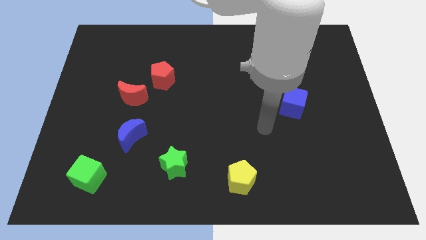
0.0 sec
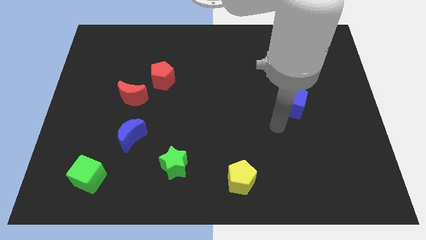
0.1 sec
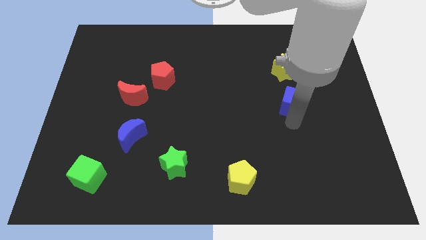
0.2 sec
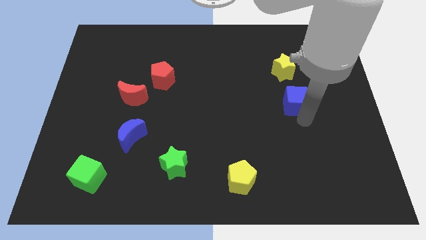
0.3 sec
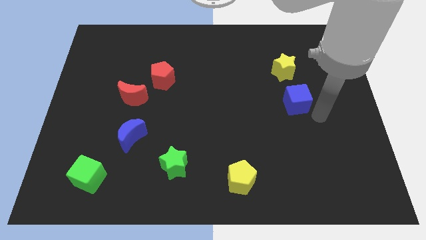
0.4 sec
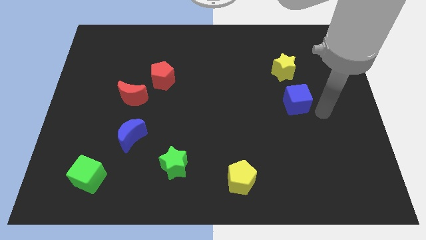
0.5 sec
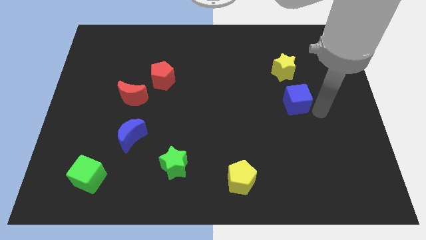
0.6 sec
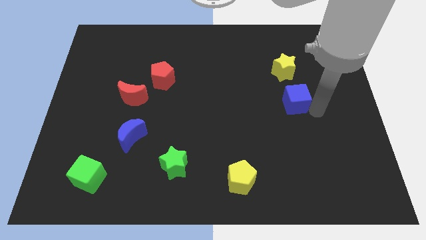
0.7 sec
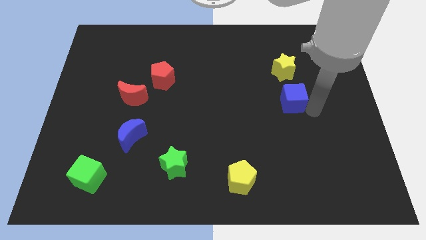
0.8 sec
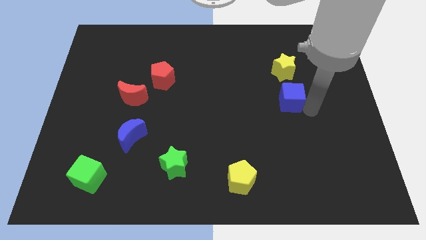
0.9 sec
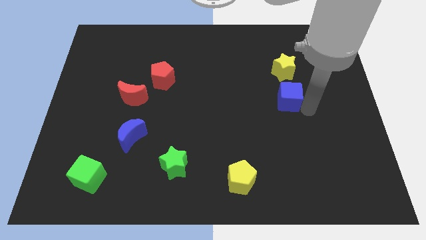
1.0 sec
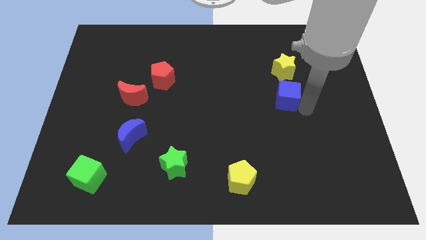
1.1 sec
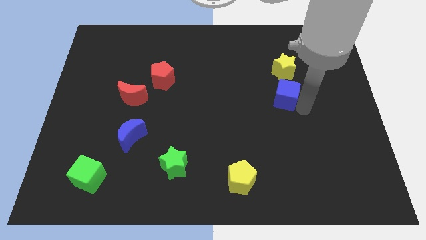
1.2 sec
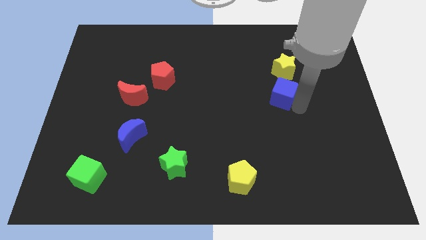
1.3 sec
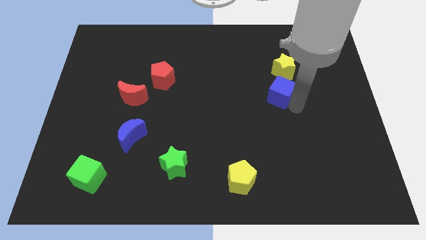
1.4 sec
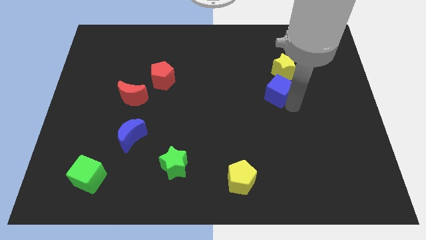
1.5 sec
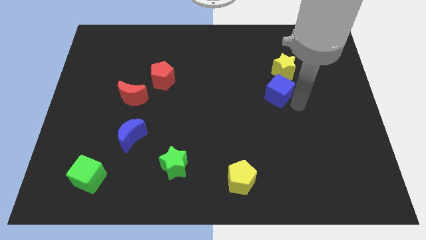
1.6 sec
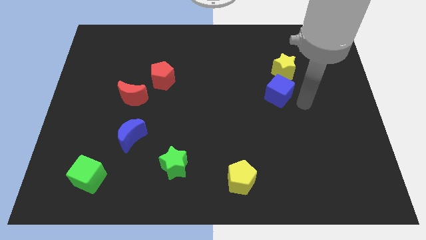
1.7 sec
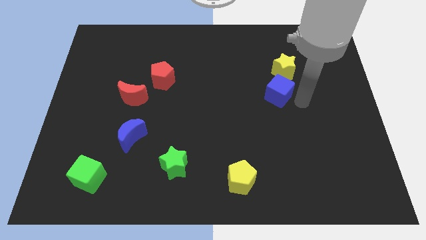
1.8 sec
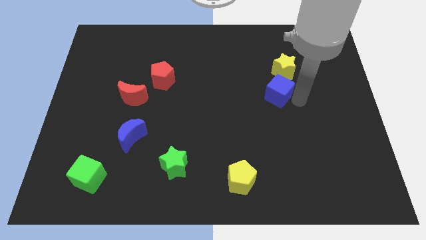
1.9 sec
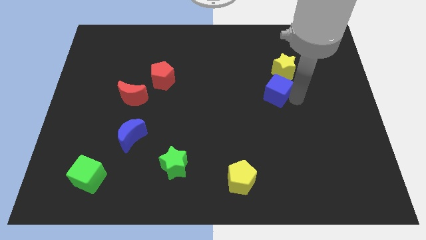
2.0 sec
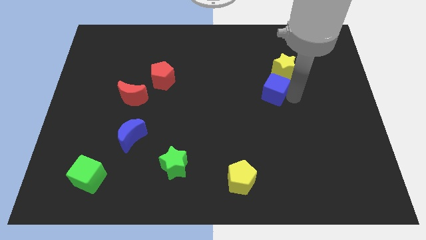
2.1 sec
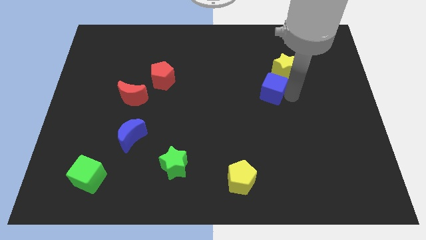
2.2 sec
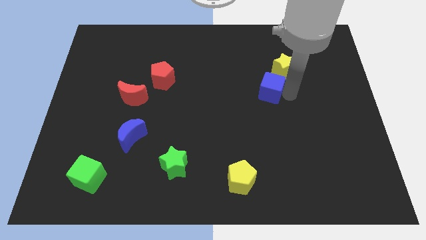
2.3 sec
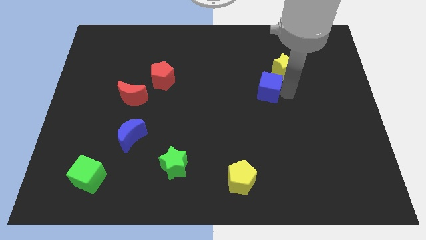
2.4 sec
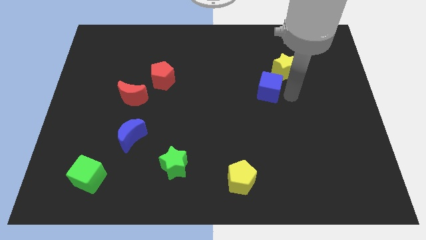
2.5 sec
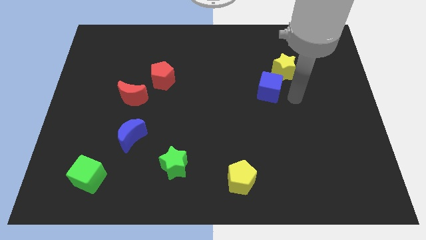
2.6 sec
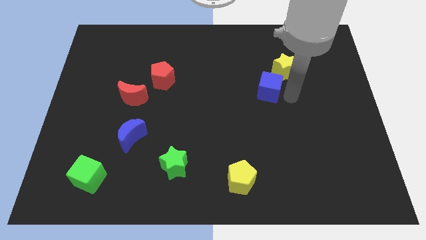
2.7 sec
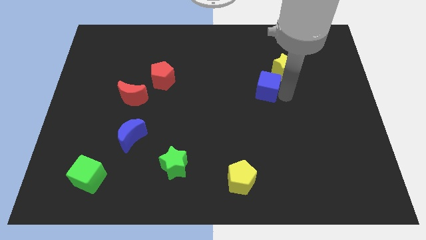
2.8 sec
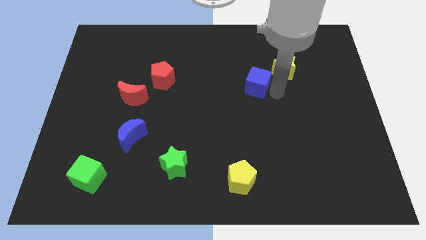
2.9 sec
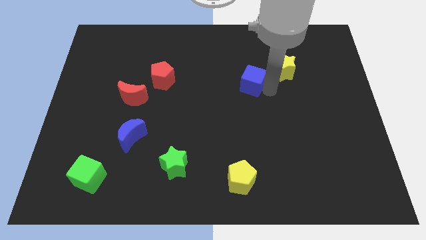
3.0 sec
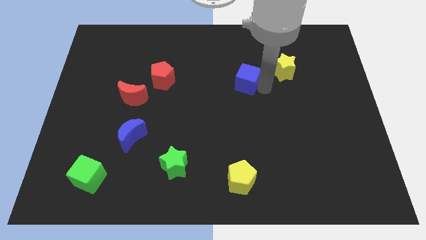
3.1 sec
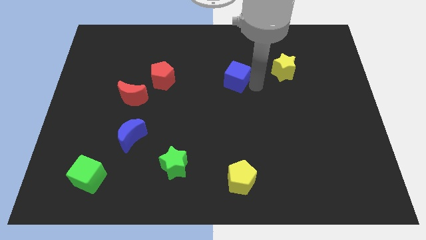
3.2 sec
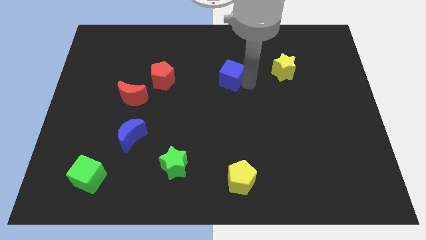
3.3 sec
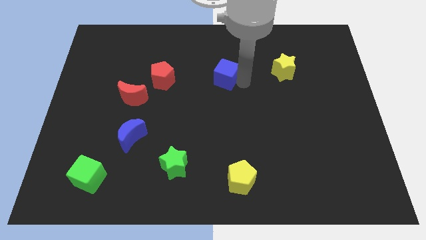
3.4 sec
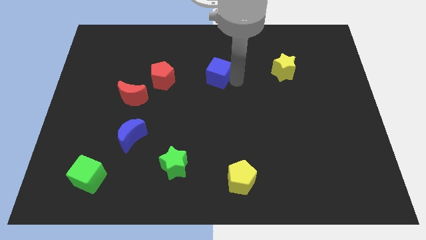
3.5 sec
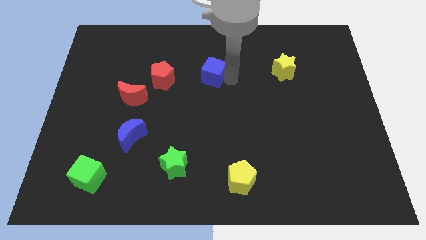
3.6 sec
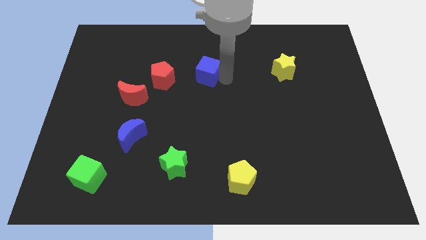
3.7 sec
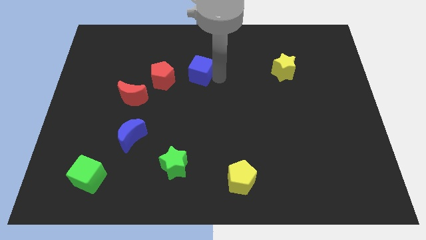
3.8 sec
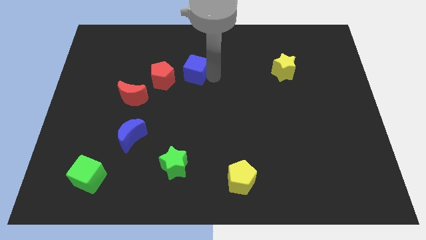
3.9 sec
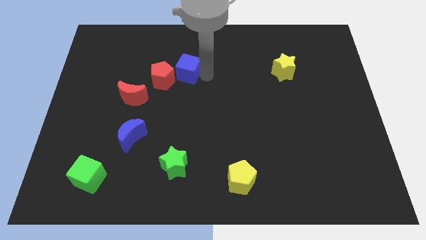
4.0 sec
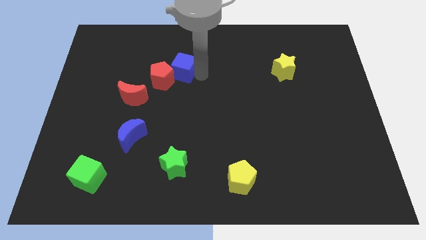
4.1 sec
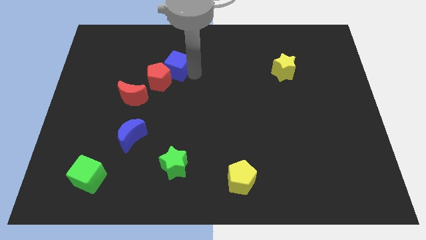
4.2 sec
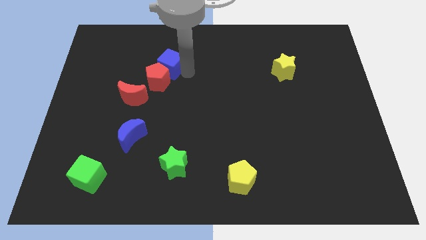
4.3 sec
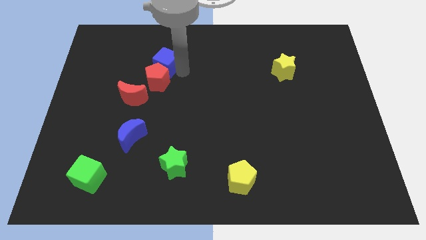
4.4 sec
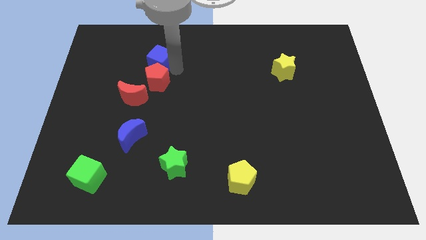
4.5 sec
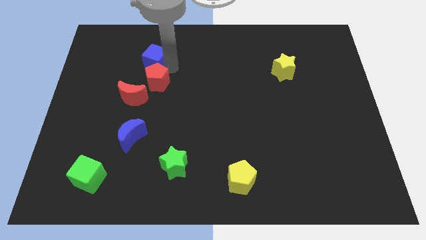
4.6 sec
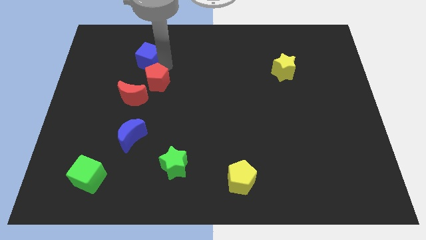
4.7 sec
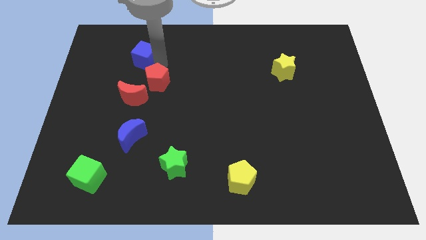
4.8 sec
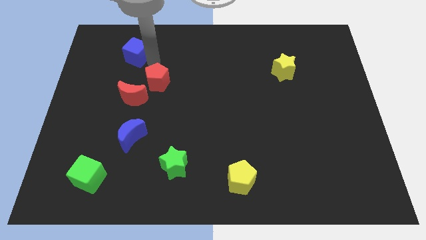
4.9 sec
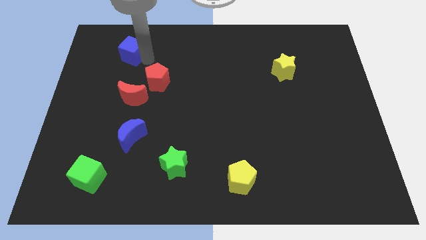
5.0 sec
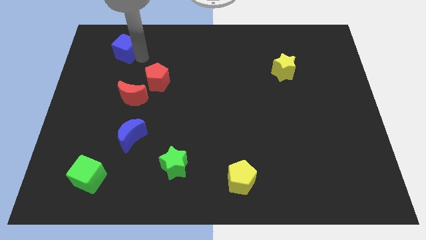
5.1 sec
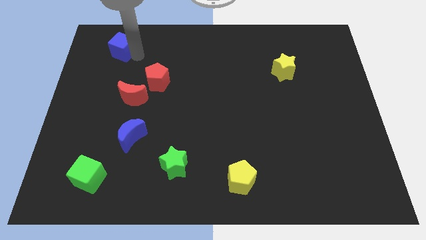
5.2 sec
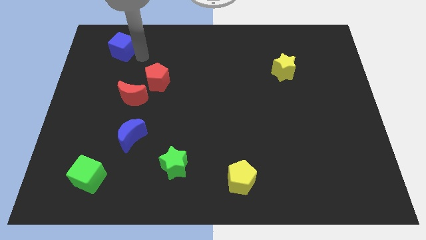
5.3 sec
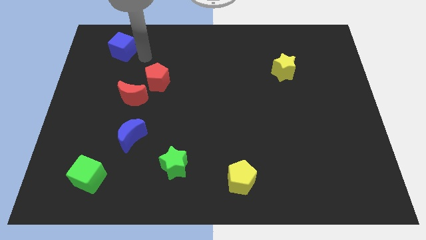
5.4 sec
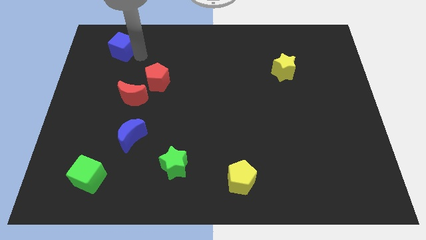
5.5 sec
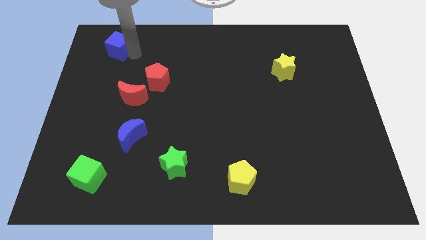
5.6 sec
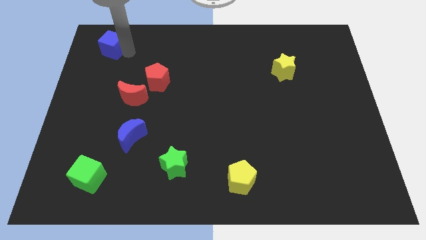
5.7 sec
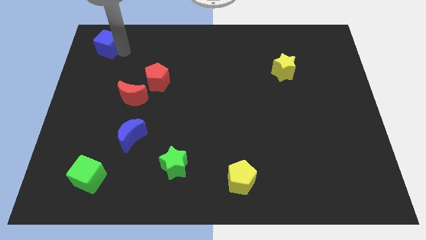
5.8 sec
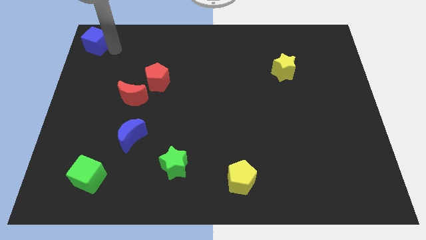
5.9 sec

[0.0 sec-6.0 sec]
push the blue cube to the upper left corner
